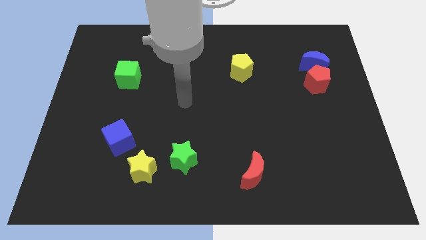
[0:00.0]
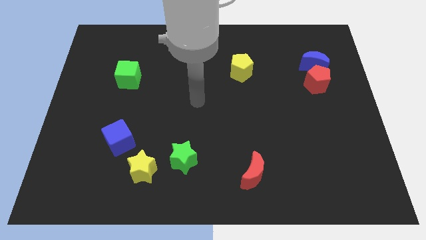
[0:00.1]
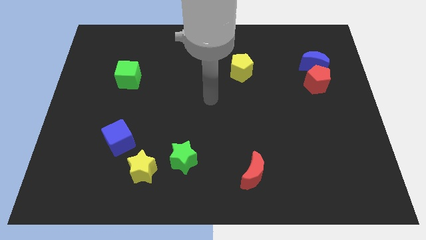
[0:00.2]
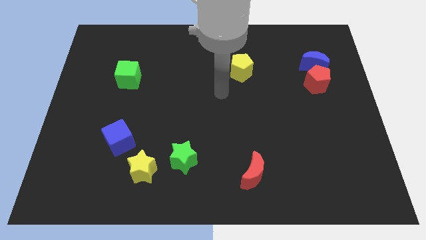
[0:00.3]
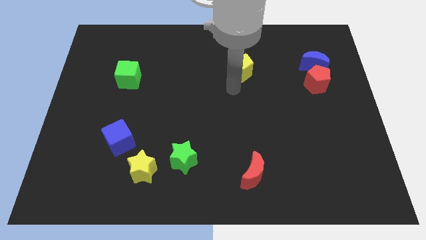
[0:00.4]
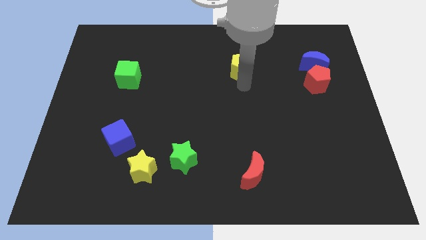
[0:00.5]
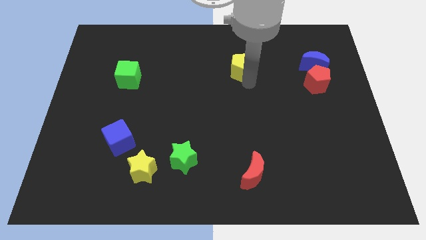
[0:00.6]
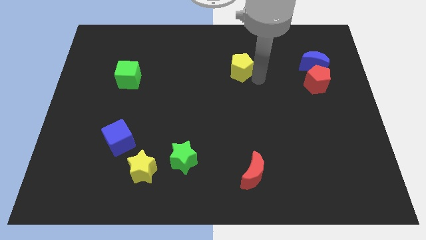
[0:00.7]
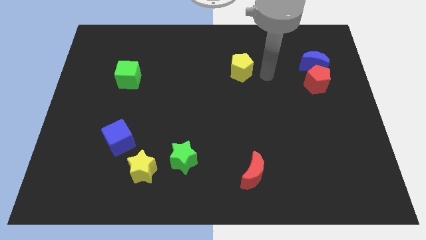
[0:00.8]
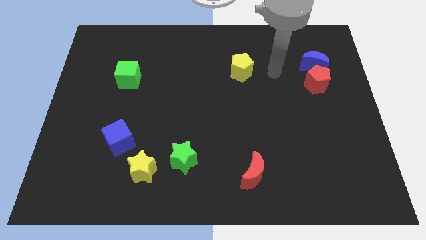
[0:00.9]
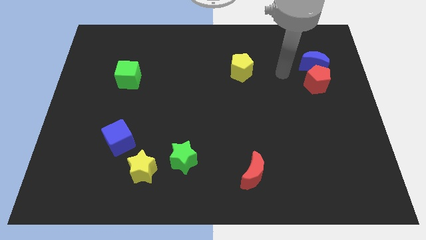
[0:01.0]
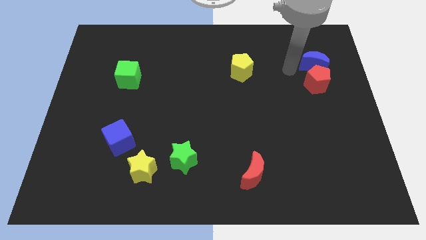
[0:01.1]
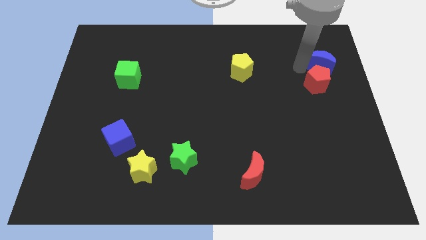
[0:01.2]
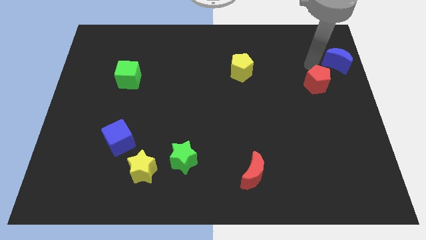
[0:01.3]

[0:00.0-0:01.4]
pull the red pentagon apart from the blue moon

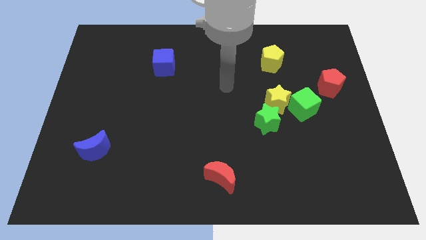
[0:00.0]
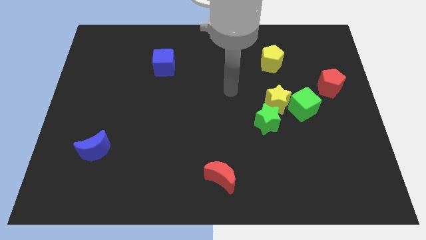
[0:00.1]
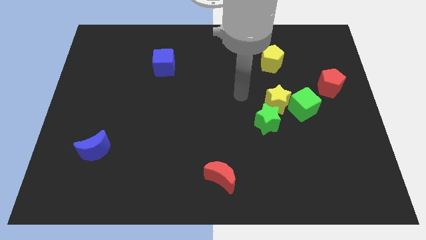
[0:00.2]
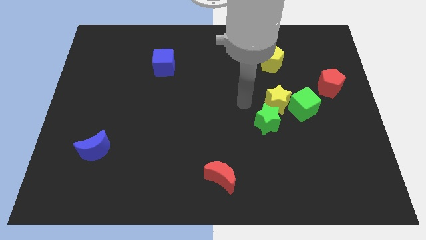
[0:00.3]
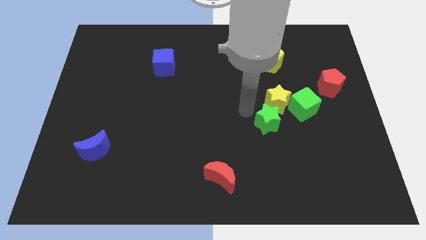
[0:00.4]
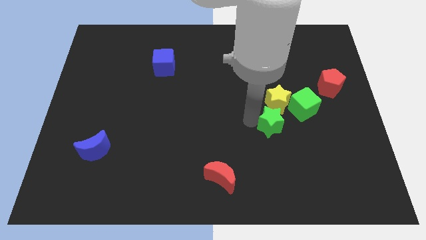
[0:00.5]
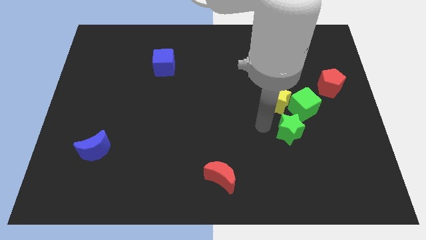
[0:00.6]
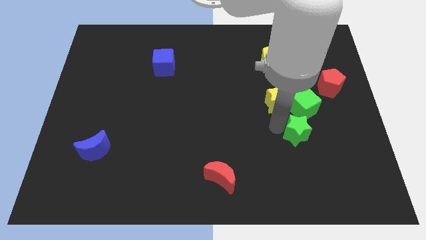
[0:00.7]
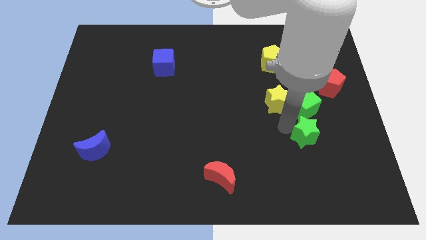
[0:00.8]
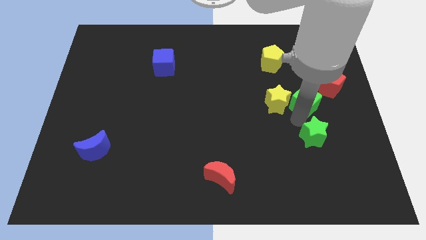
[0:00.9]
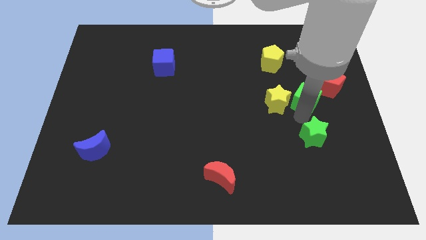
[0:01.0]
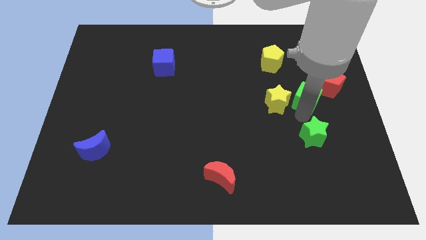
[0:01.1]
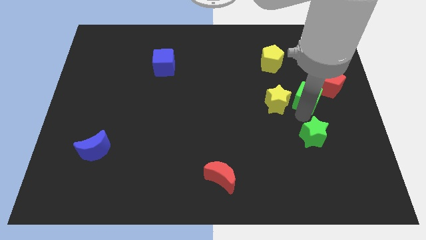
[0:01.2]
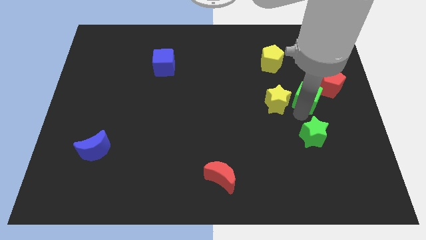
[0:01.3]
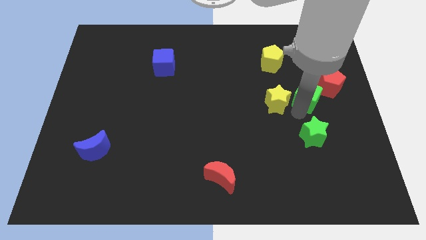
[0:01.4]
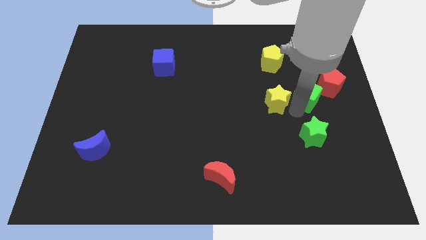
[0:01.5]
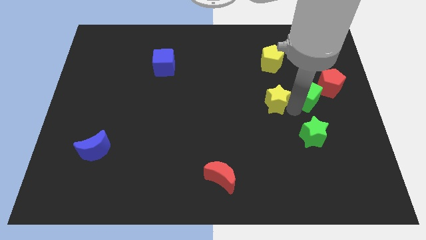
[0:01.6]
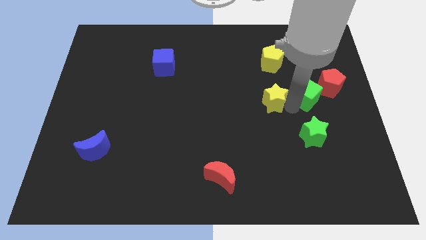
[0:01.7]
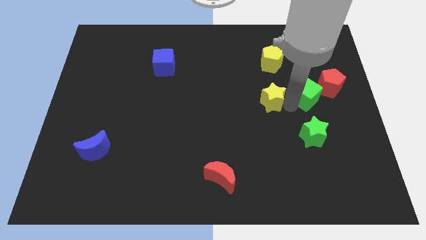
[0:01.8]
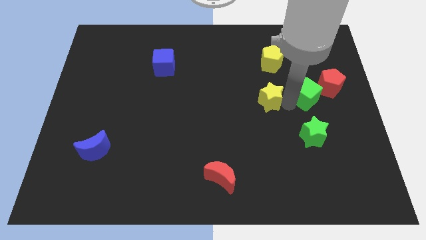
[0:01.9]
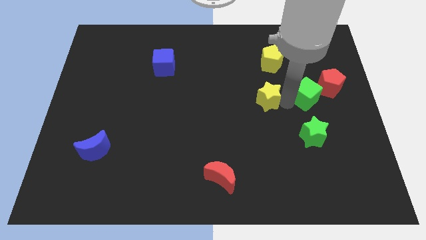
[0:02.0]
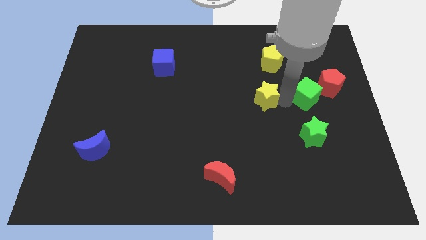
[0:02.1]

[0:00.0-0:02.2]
pull the yellow star apart from the green cube and green star

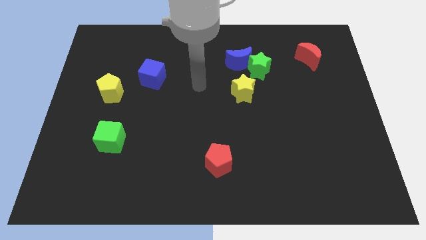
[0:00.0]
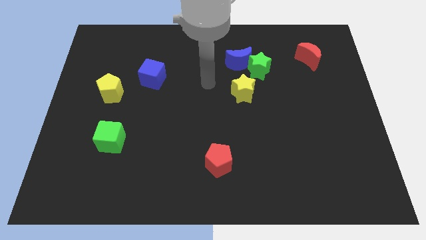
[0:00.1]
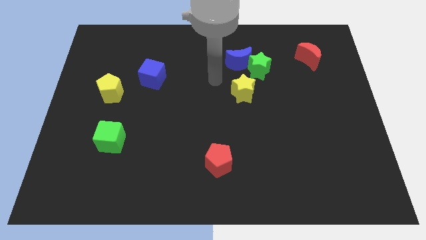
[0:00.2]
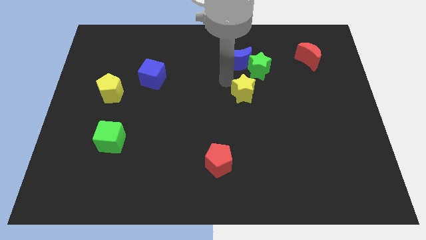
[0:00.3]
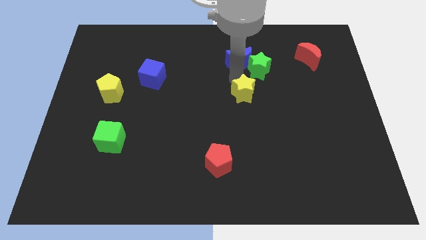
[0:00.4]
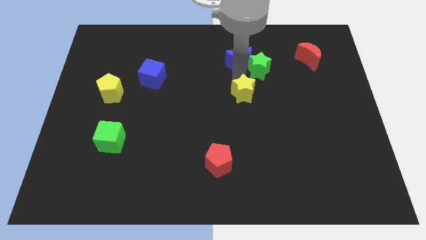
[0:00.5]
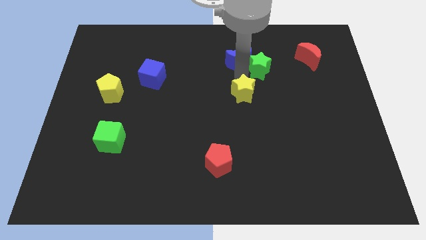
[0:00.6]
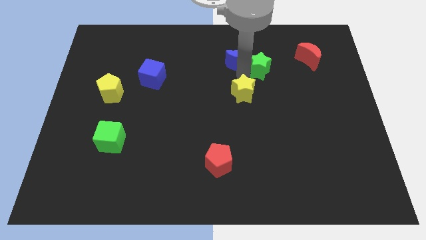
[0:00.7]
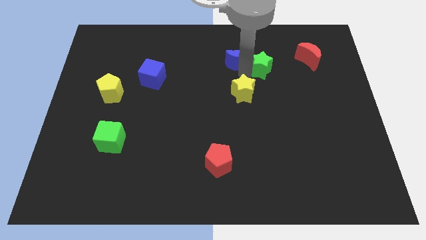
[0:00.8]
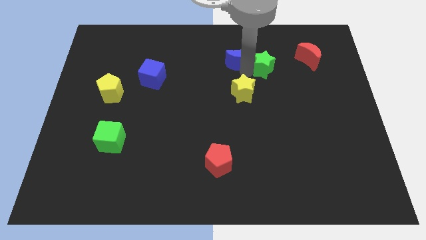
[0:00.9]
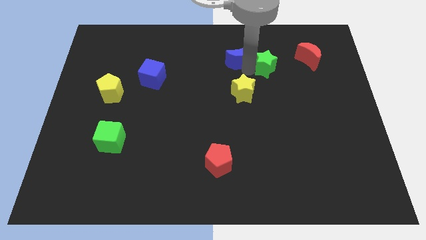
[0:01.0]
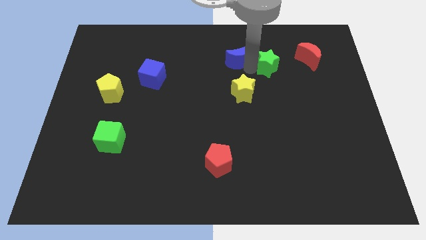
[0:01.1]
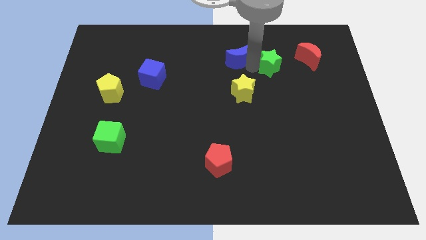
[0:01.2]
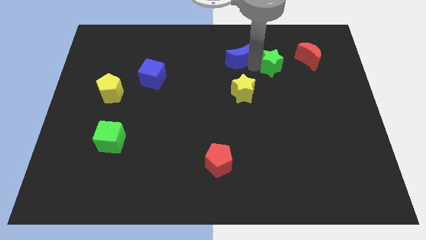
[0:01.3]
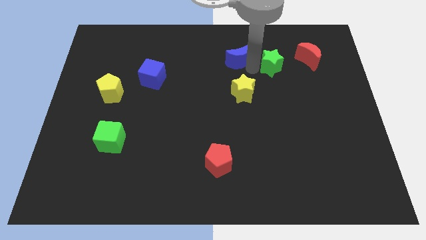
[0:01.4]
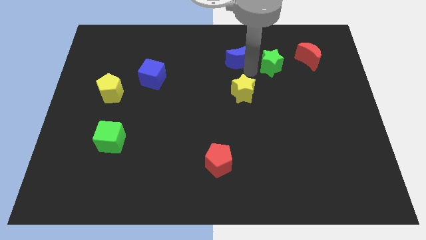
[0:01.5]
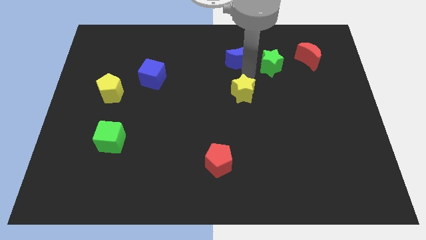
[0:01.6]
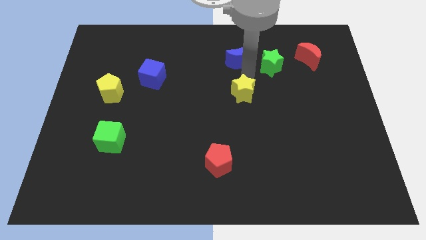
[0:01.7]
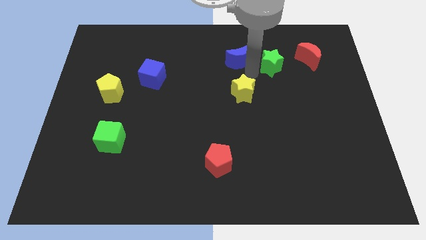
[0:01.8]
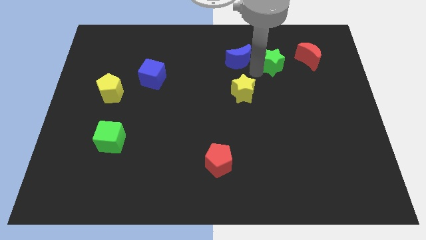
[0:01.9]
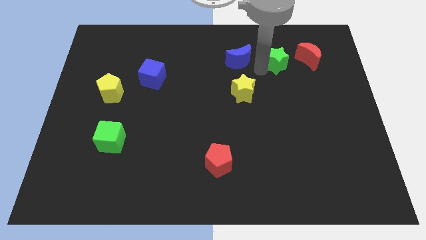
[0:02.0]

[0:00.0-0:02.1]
pull the green star apart from the blue moon and yellow star

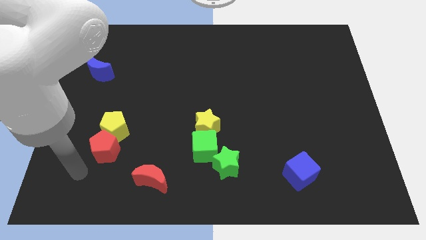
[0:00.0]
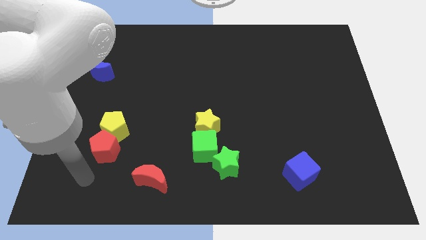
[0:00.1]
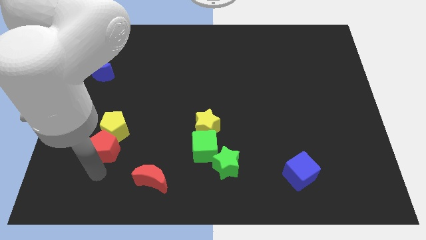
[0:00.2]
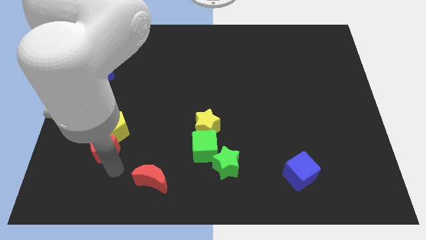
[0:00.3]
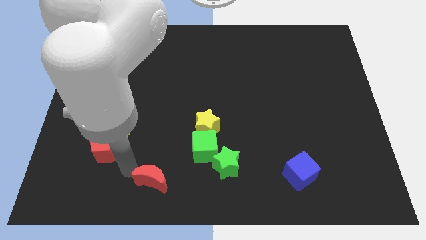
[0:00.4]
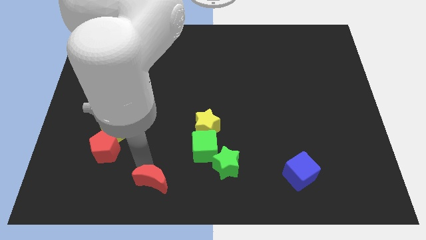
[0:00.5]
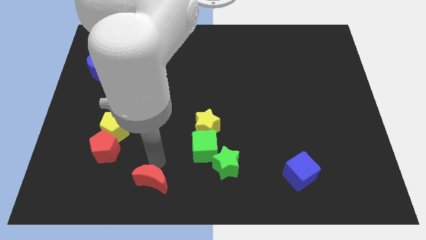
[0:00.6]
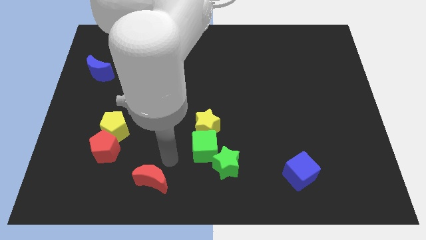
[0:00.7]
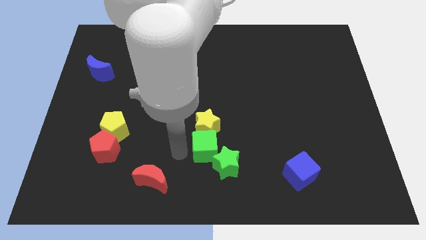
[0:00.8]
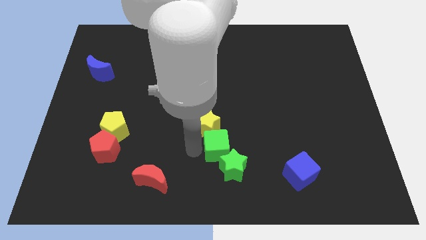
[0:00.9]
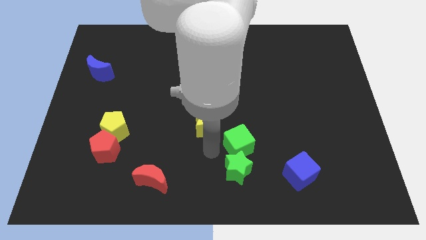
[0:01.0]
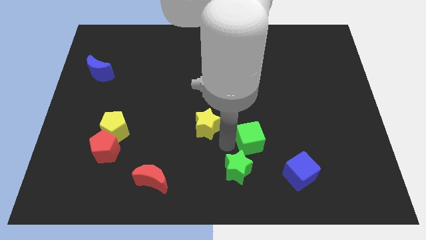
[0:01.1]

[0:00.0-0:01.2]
pull the yellow star apart from the green cube

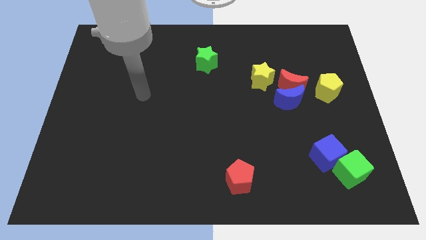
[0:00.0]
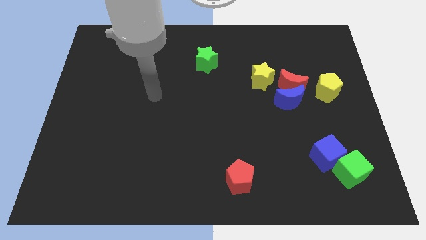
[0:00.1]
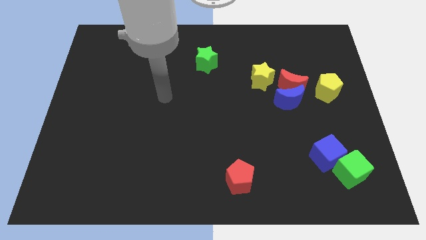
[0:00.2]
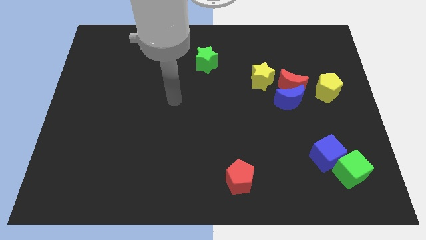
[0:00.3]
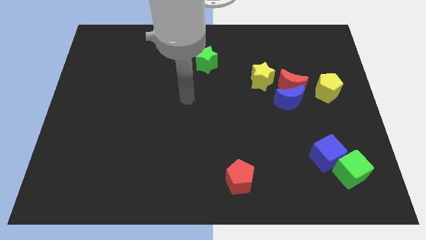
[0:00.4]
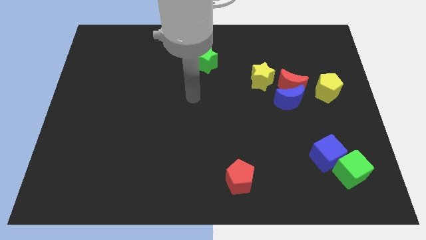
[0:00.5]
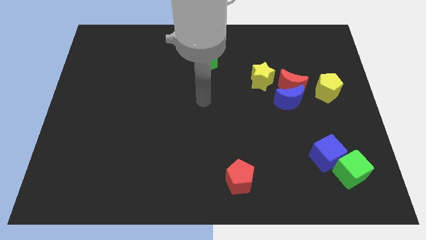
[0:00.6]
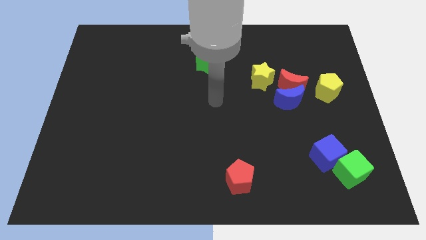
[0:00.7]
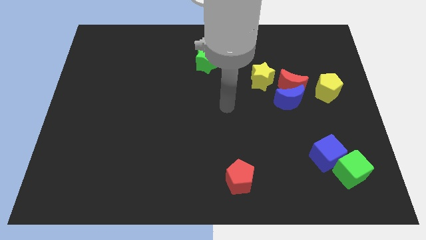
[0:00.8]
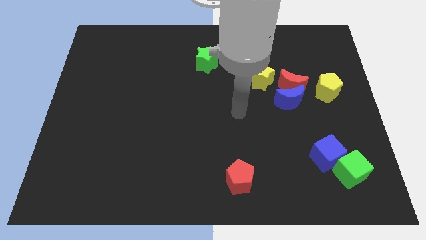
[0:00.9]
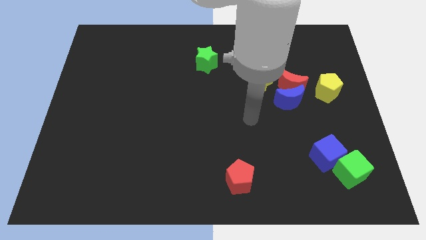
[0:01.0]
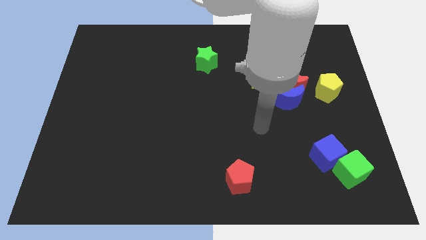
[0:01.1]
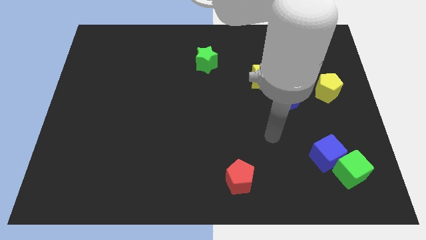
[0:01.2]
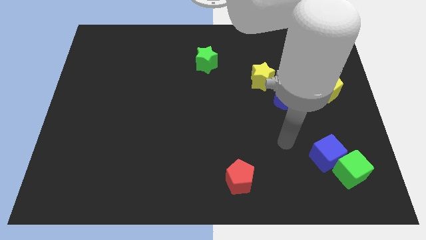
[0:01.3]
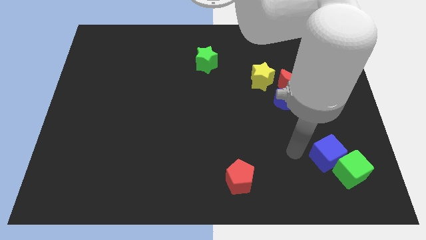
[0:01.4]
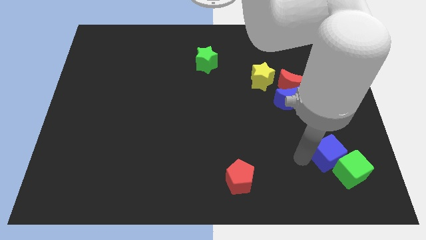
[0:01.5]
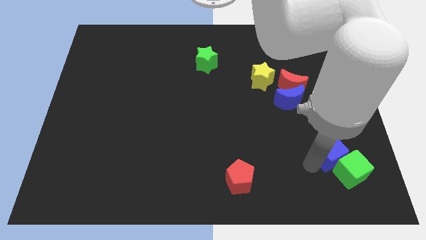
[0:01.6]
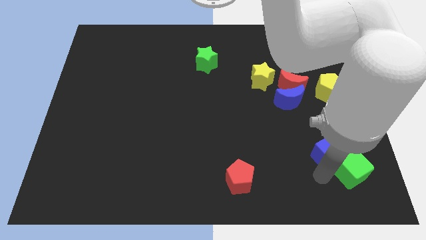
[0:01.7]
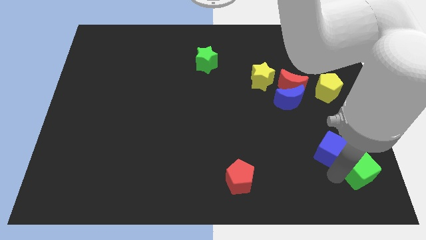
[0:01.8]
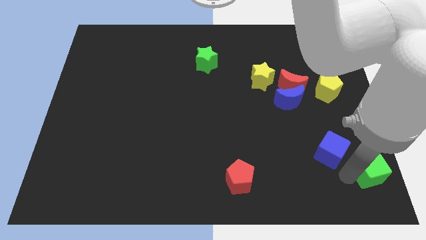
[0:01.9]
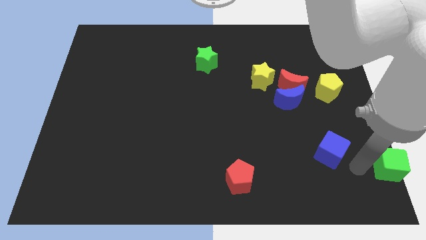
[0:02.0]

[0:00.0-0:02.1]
pull the blue cube apart from the green cube

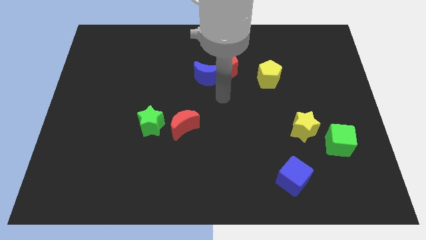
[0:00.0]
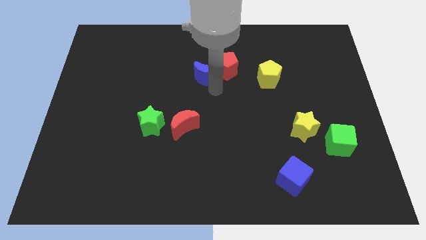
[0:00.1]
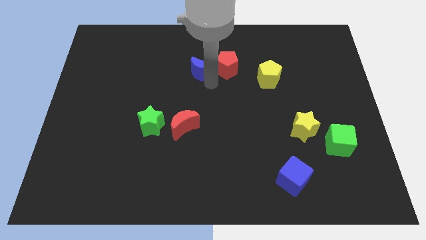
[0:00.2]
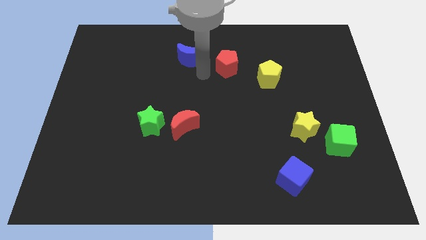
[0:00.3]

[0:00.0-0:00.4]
move the red pentagon away from the blue moon

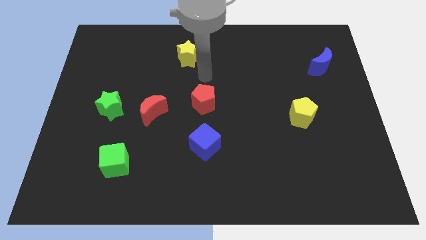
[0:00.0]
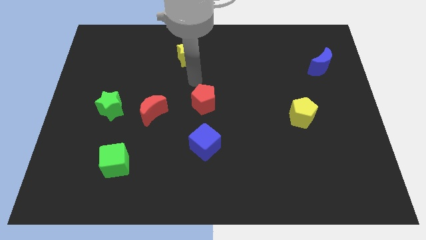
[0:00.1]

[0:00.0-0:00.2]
separate the red moon from the green star
